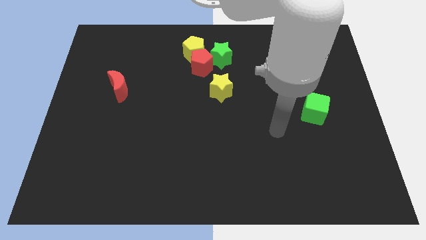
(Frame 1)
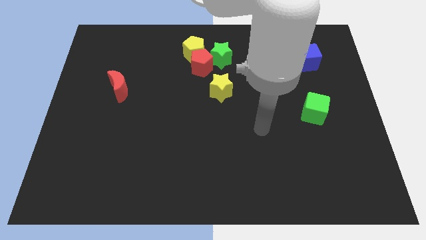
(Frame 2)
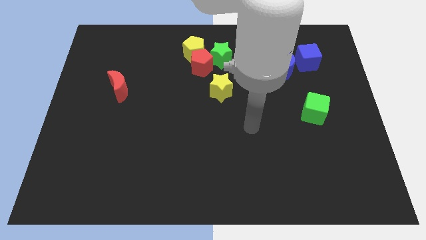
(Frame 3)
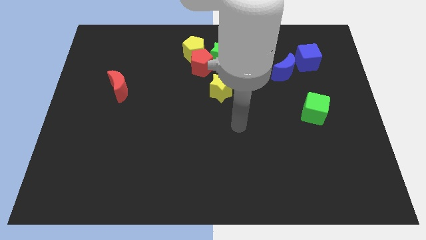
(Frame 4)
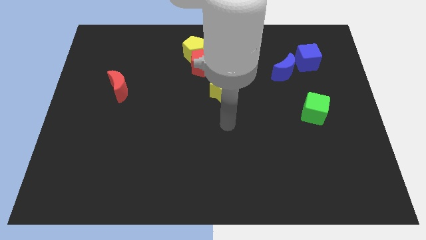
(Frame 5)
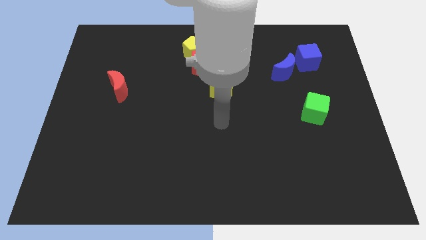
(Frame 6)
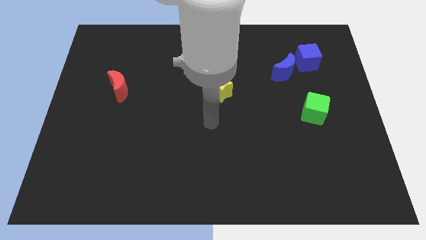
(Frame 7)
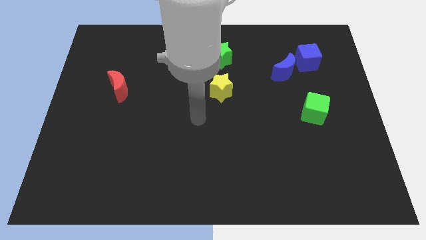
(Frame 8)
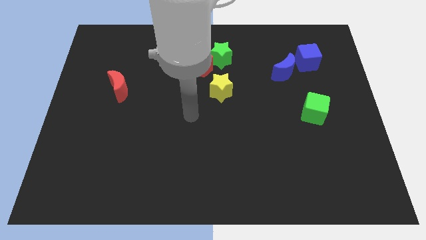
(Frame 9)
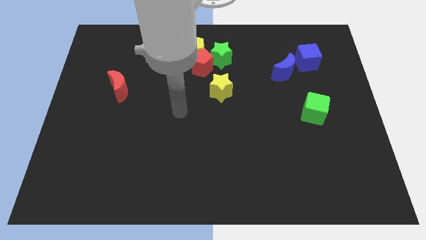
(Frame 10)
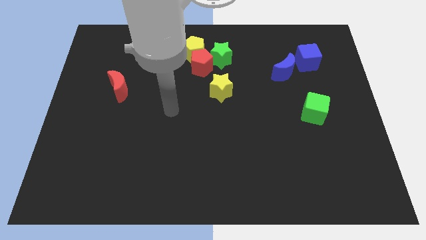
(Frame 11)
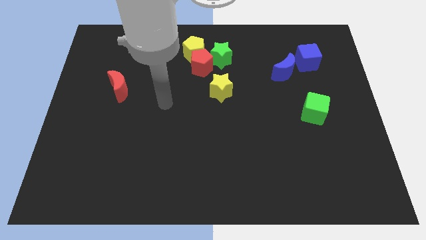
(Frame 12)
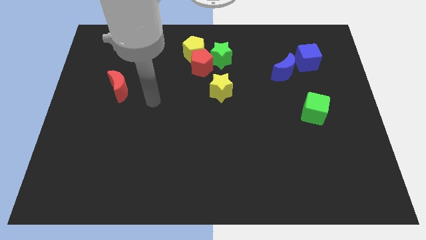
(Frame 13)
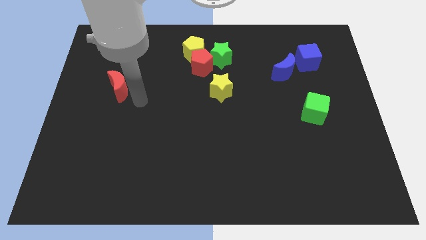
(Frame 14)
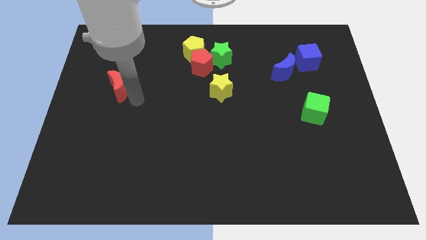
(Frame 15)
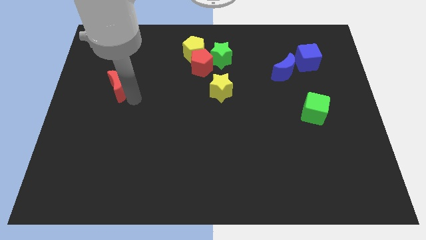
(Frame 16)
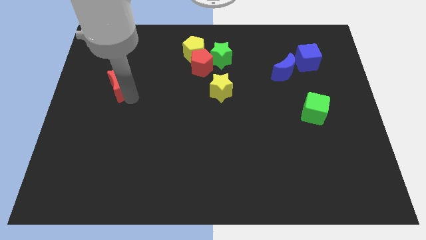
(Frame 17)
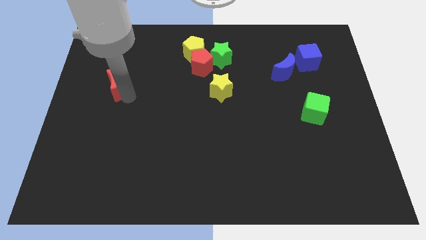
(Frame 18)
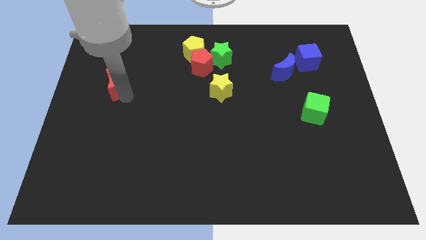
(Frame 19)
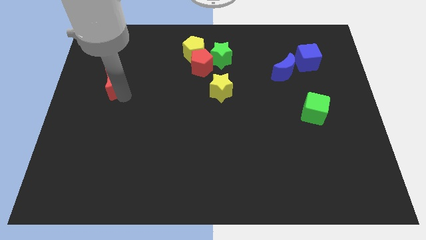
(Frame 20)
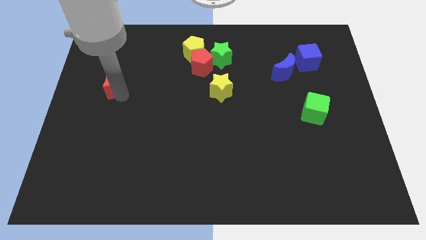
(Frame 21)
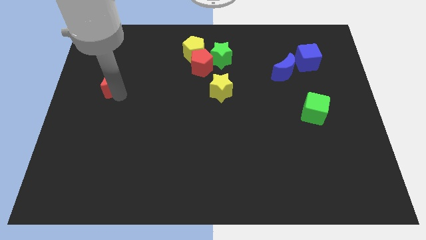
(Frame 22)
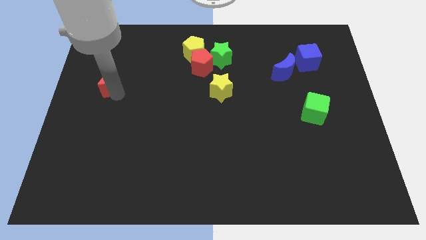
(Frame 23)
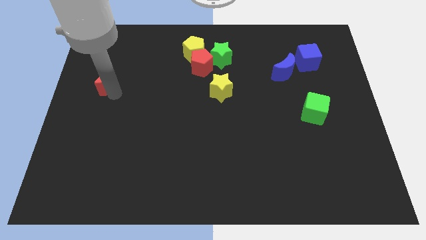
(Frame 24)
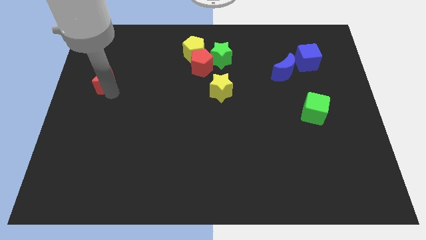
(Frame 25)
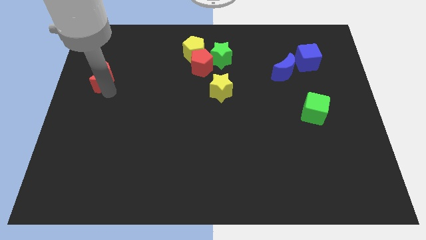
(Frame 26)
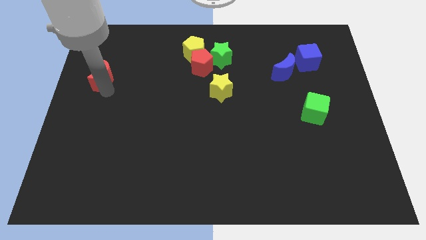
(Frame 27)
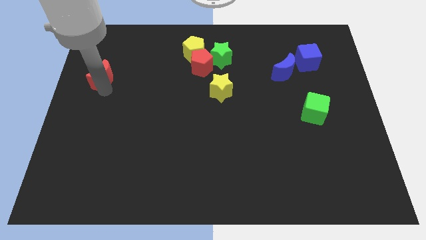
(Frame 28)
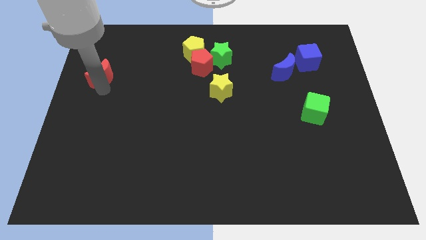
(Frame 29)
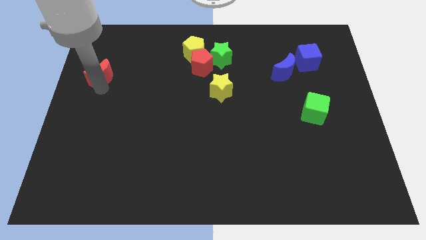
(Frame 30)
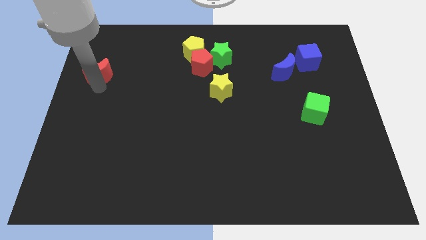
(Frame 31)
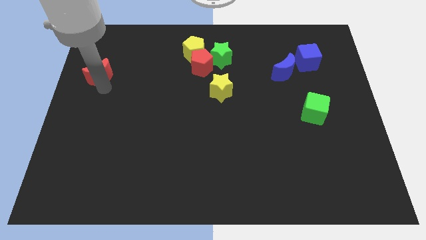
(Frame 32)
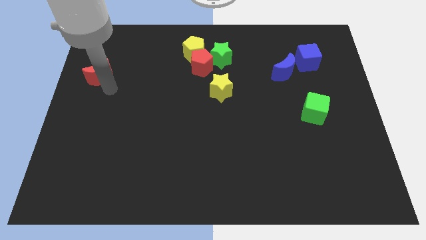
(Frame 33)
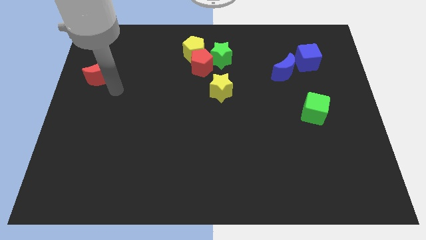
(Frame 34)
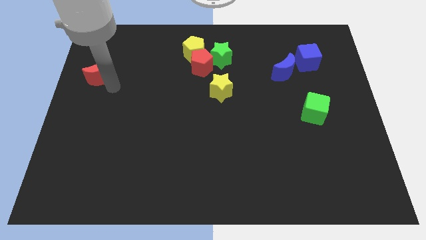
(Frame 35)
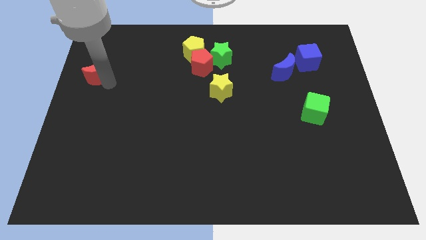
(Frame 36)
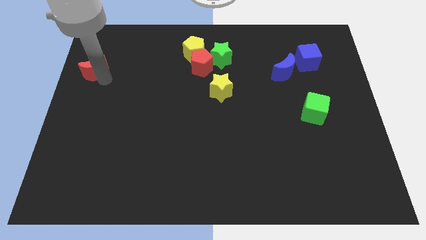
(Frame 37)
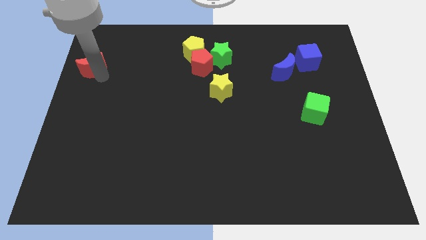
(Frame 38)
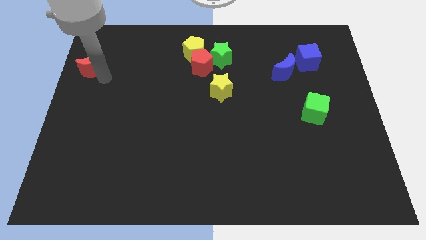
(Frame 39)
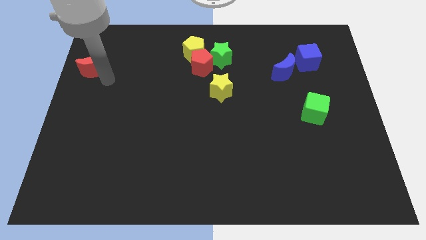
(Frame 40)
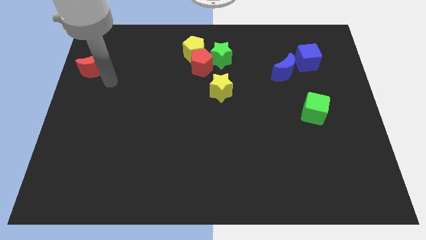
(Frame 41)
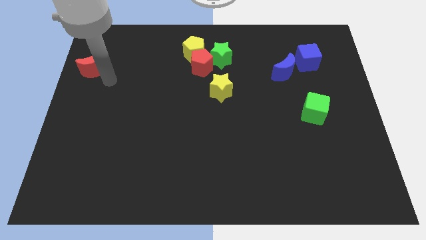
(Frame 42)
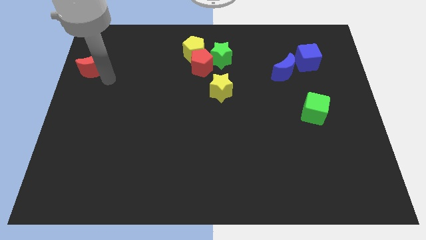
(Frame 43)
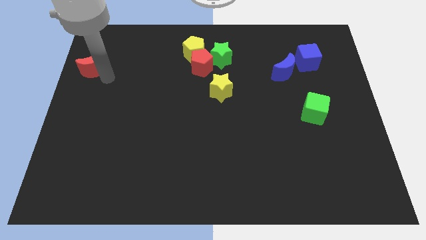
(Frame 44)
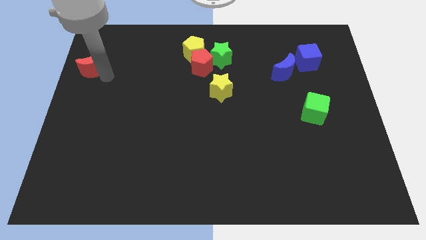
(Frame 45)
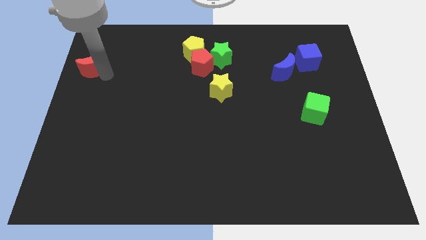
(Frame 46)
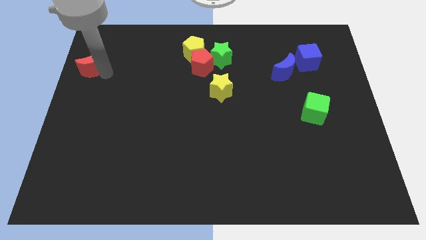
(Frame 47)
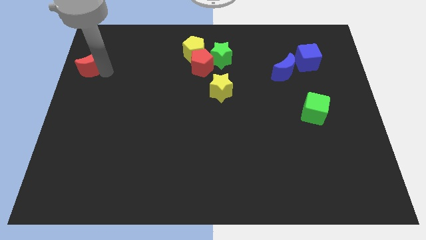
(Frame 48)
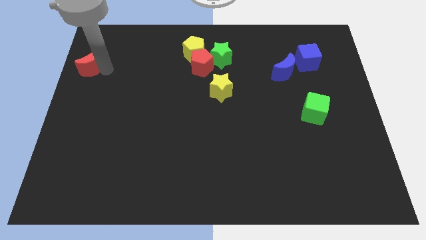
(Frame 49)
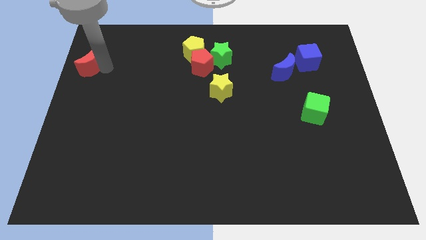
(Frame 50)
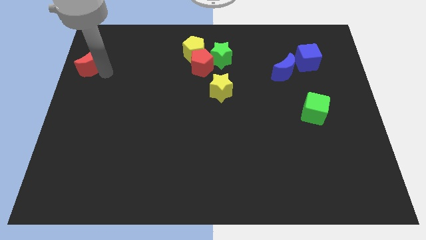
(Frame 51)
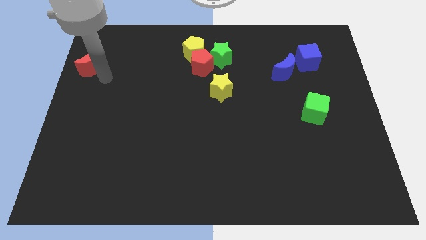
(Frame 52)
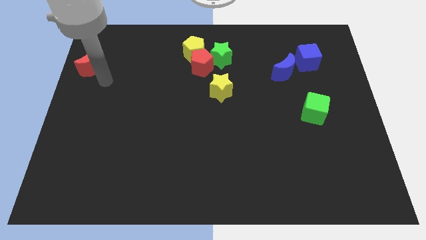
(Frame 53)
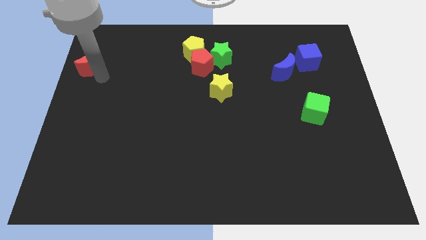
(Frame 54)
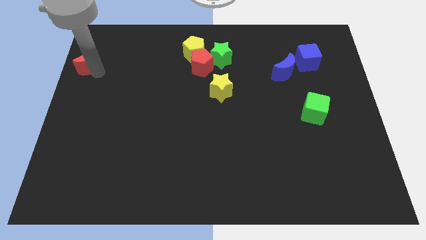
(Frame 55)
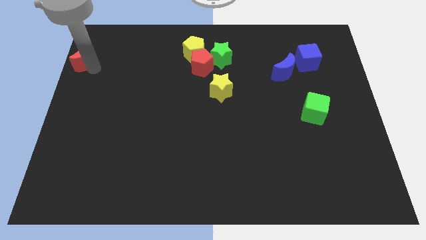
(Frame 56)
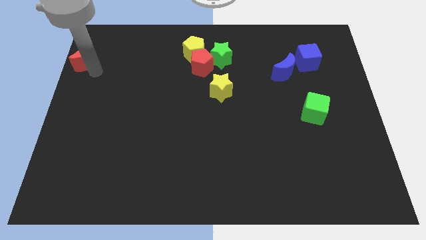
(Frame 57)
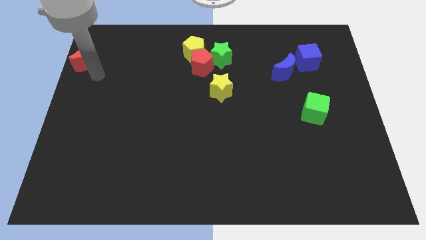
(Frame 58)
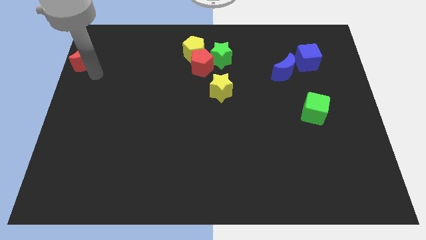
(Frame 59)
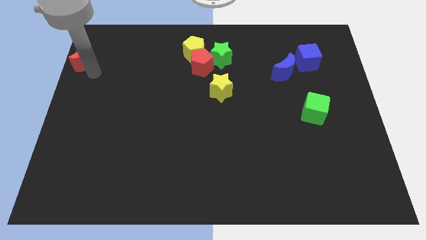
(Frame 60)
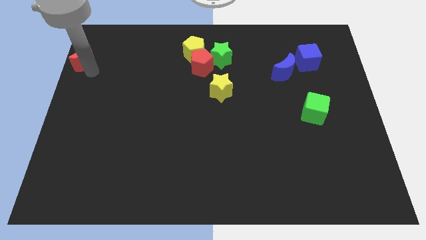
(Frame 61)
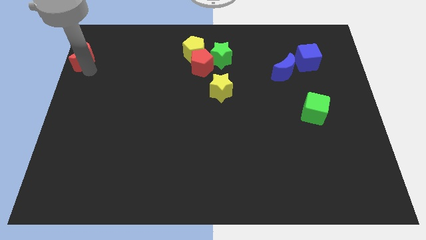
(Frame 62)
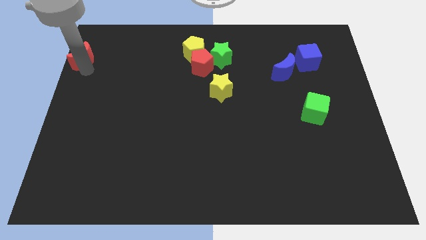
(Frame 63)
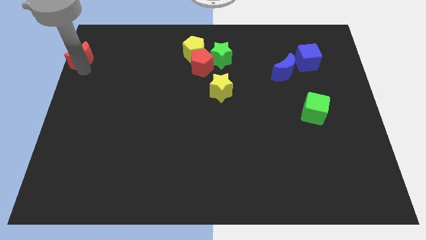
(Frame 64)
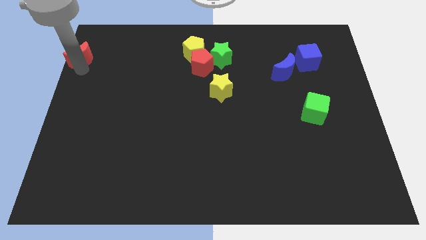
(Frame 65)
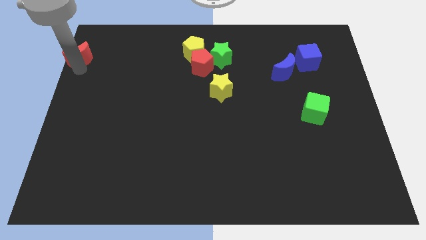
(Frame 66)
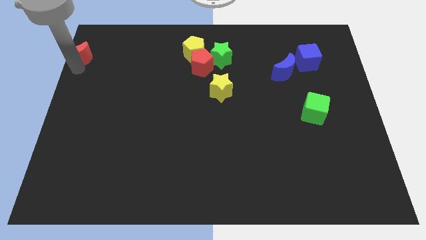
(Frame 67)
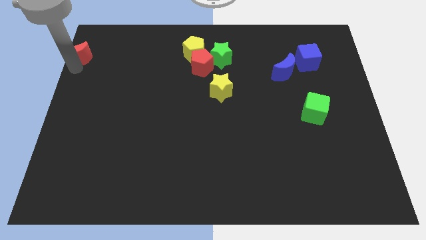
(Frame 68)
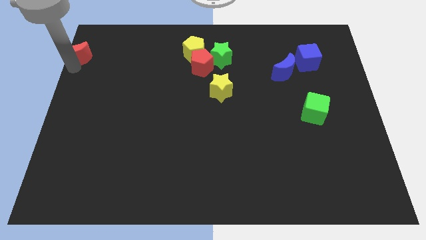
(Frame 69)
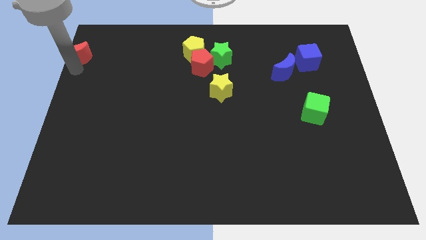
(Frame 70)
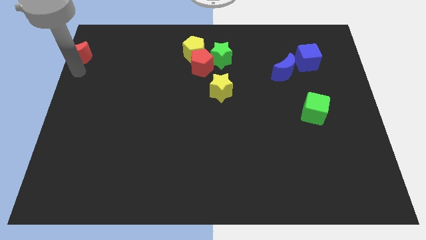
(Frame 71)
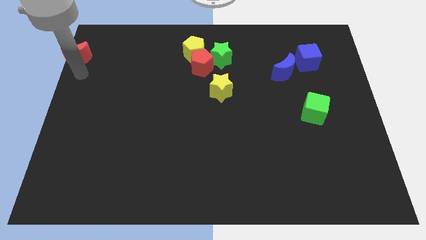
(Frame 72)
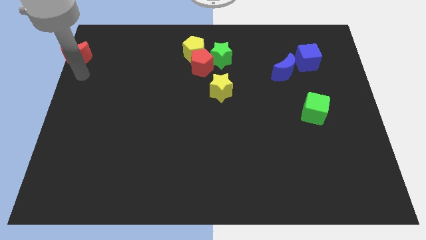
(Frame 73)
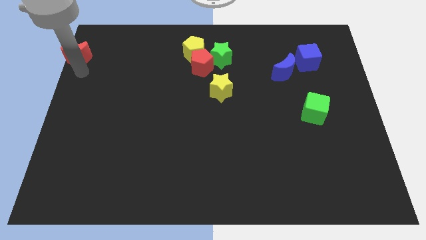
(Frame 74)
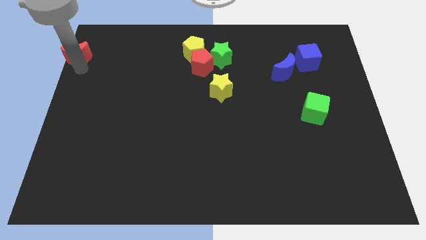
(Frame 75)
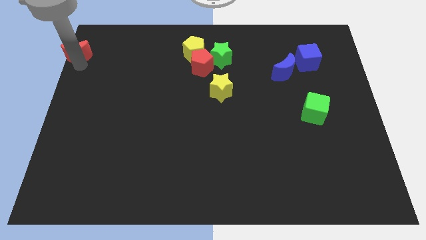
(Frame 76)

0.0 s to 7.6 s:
slide the red moon to the top left of the board
